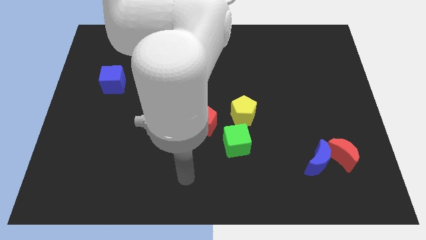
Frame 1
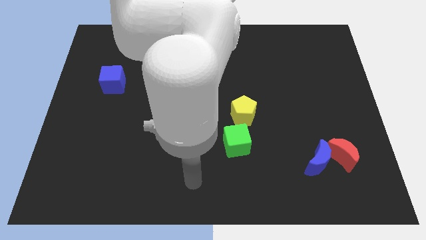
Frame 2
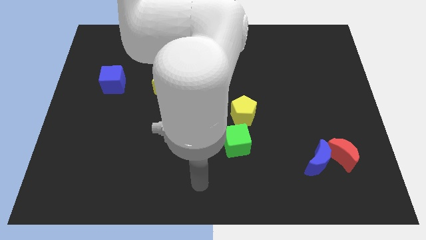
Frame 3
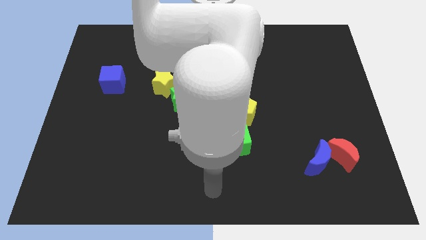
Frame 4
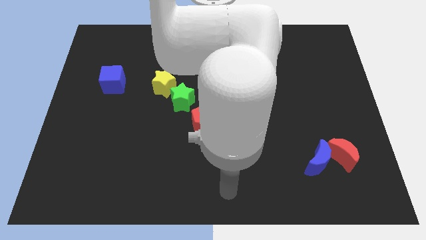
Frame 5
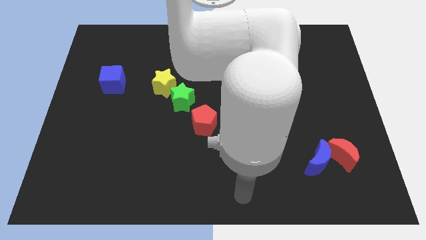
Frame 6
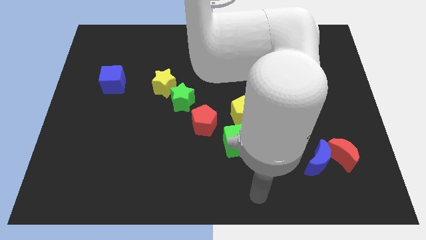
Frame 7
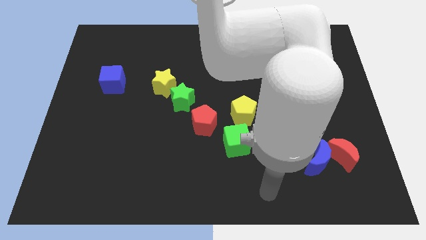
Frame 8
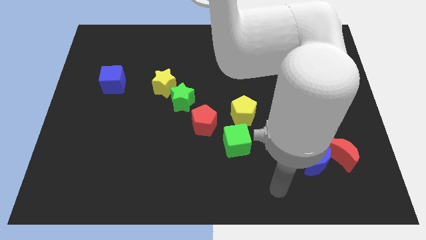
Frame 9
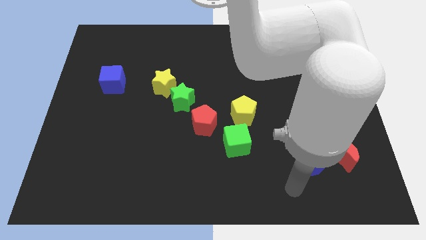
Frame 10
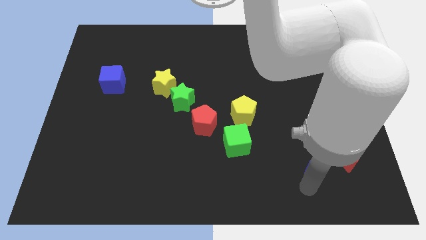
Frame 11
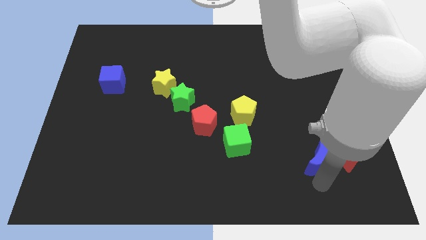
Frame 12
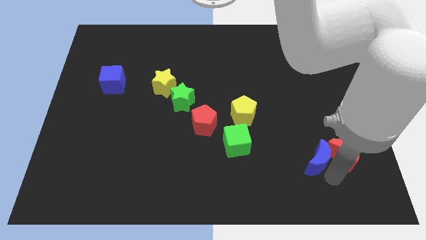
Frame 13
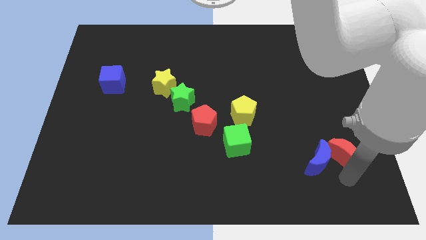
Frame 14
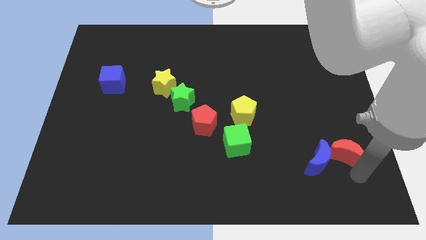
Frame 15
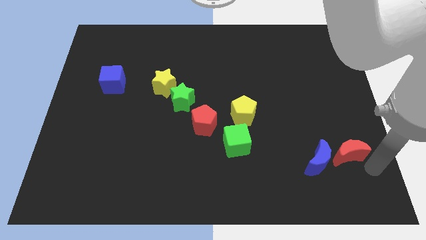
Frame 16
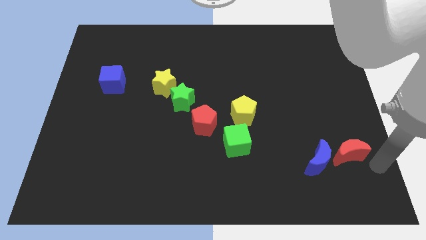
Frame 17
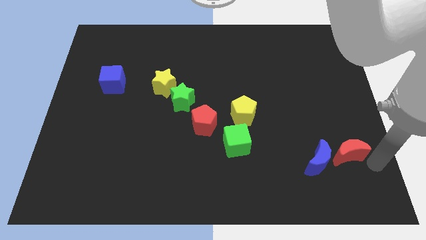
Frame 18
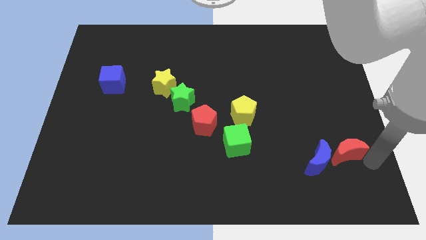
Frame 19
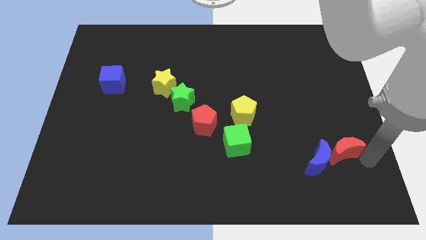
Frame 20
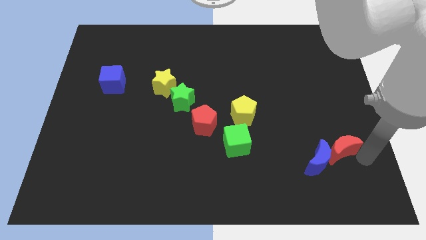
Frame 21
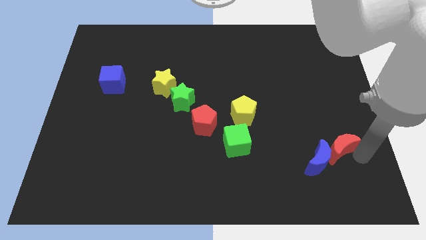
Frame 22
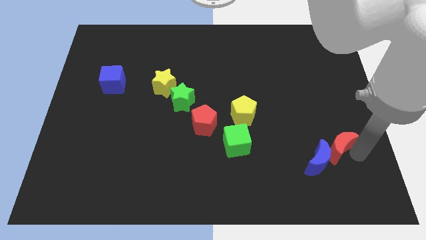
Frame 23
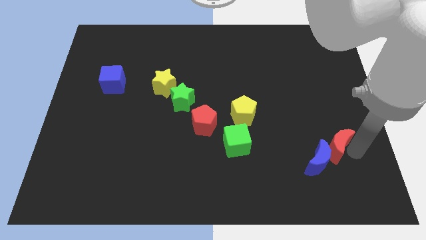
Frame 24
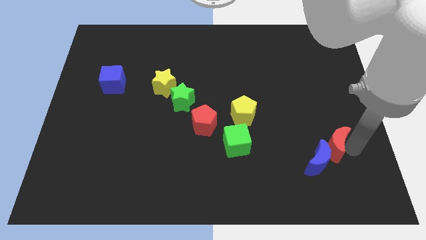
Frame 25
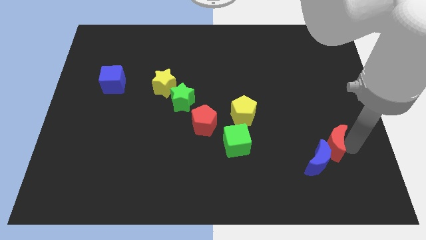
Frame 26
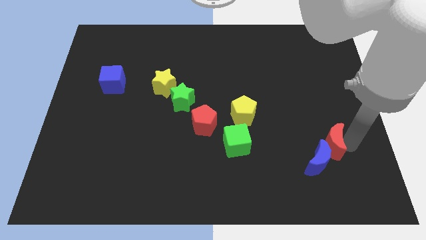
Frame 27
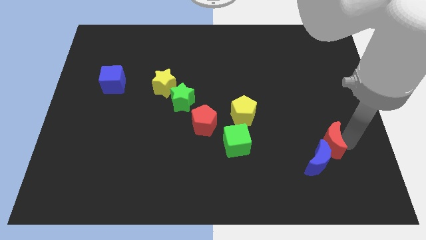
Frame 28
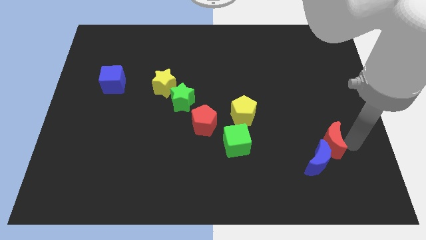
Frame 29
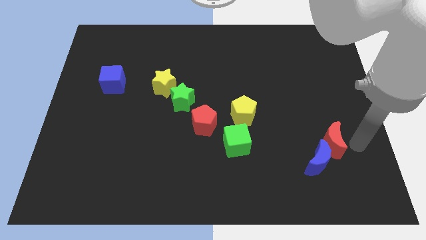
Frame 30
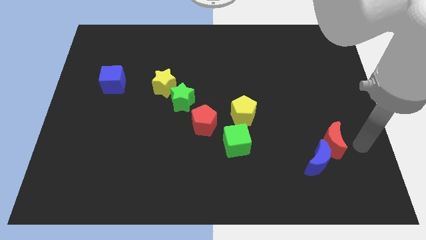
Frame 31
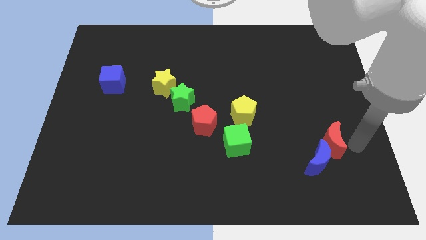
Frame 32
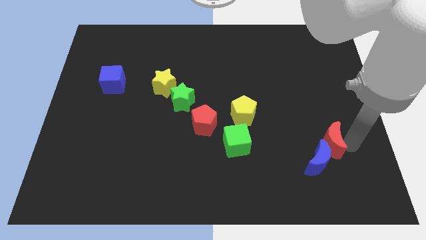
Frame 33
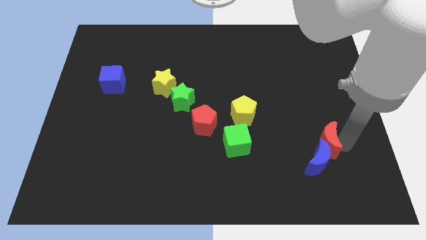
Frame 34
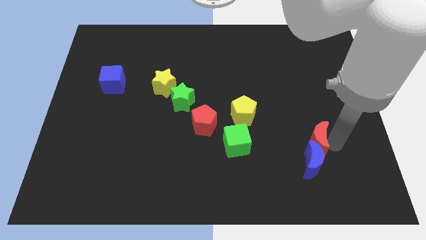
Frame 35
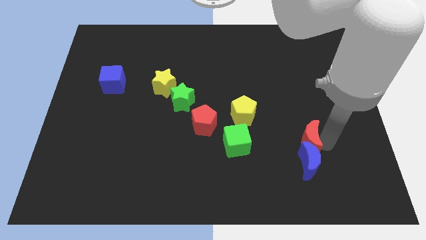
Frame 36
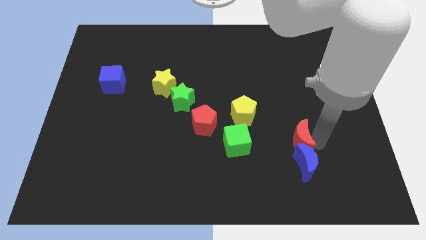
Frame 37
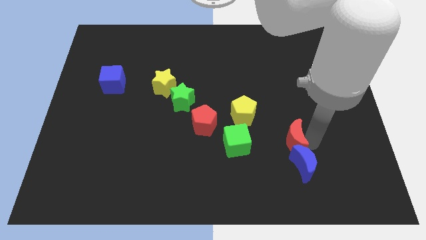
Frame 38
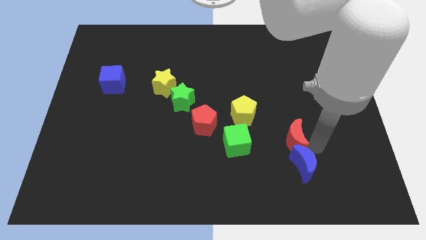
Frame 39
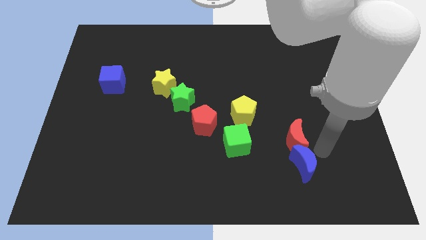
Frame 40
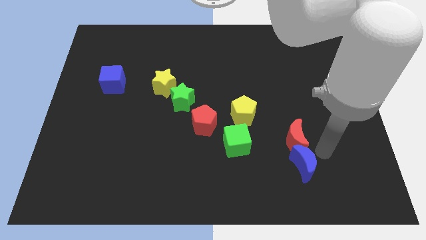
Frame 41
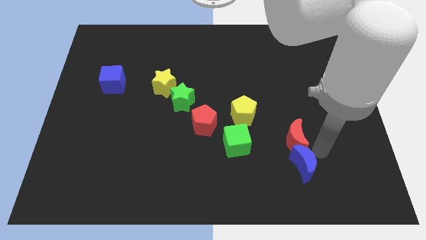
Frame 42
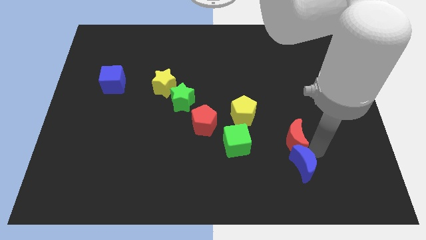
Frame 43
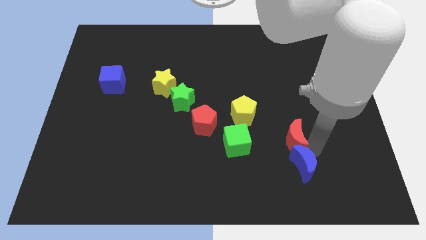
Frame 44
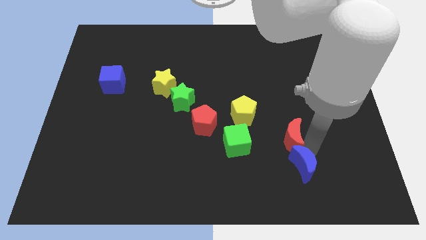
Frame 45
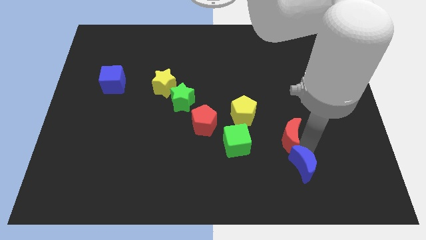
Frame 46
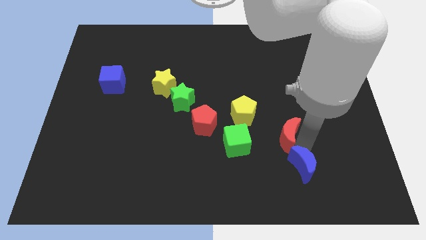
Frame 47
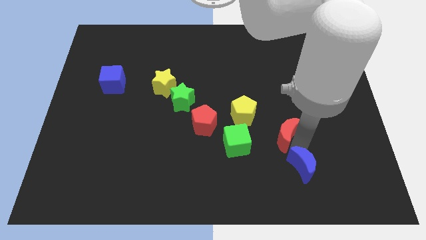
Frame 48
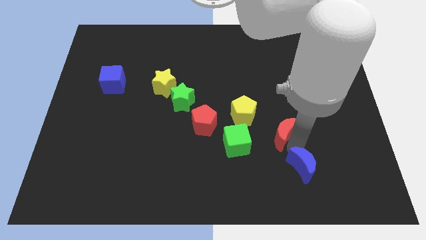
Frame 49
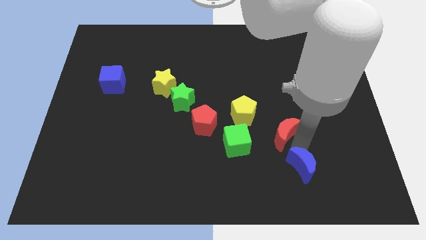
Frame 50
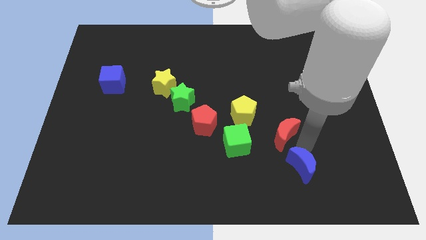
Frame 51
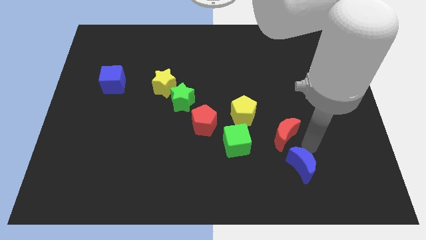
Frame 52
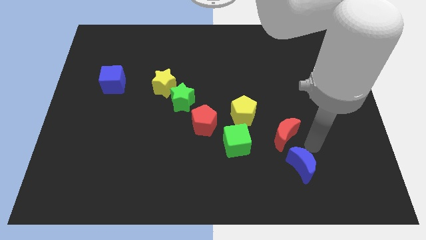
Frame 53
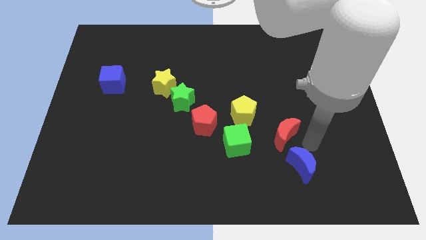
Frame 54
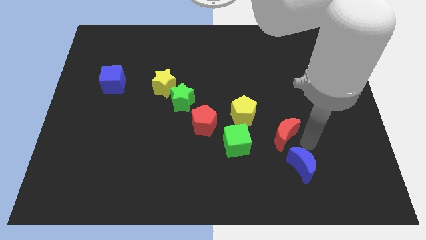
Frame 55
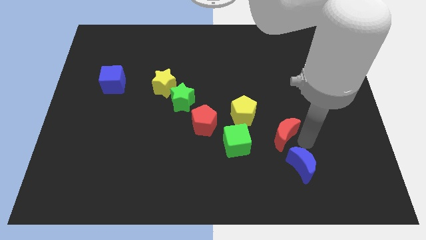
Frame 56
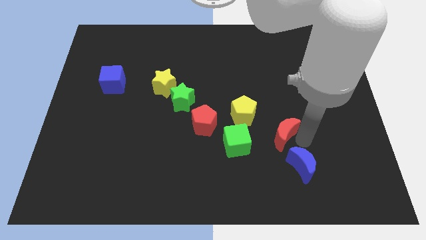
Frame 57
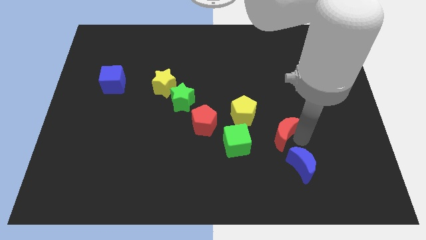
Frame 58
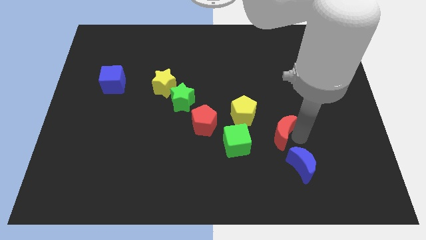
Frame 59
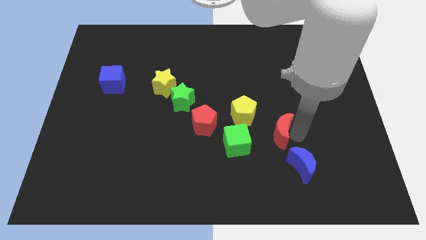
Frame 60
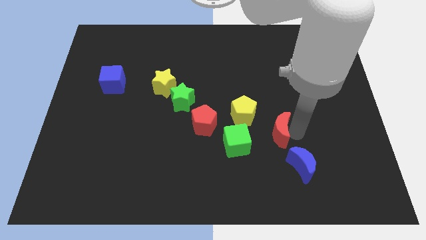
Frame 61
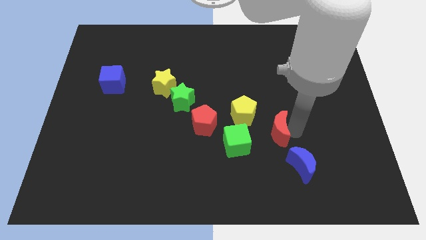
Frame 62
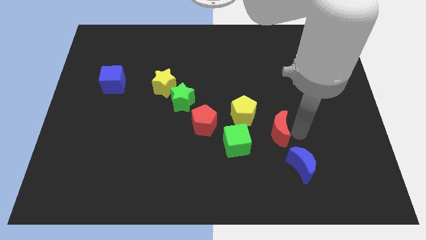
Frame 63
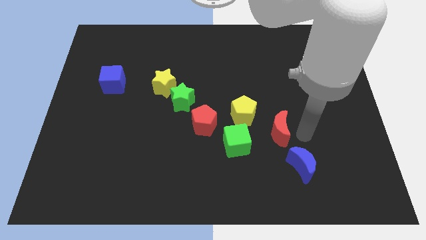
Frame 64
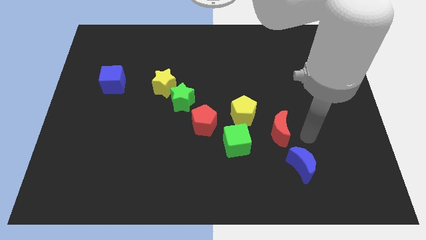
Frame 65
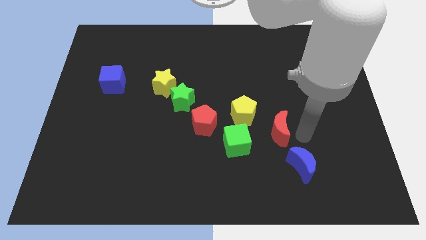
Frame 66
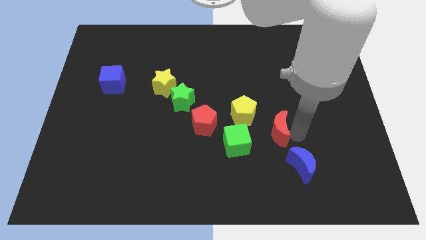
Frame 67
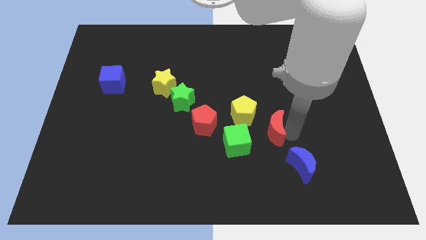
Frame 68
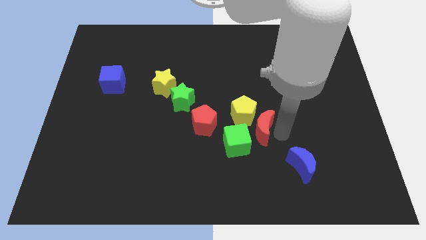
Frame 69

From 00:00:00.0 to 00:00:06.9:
put the red moon towards the yellow pentagon

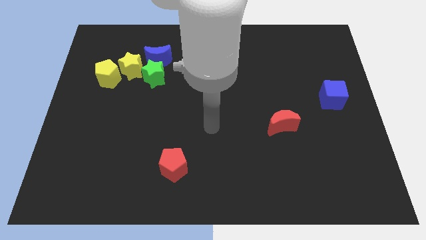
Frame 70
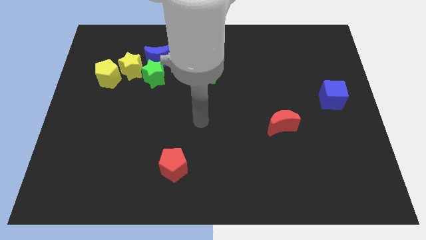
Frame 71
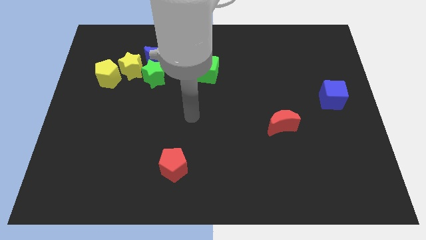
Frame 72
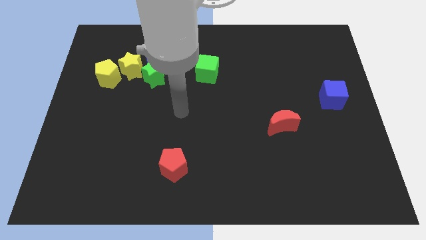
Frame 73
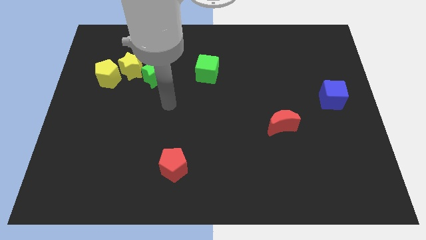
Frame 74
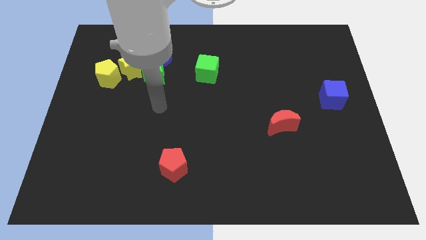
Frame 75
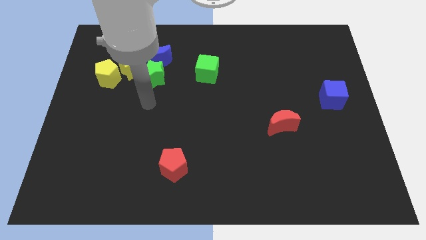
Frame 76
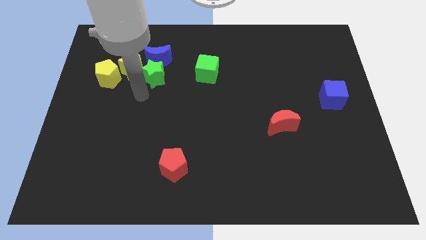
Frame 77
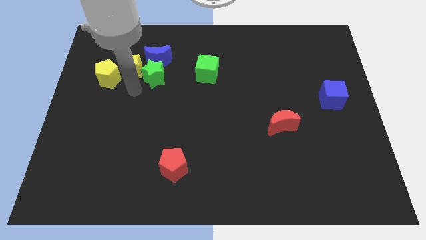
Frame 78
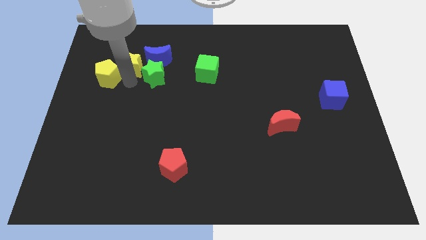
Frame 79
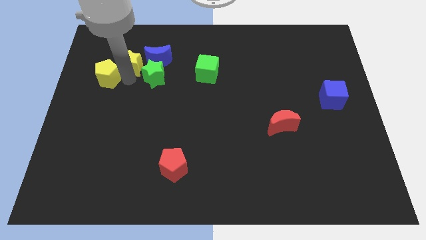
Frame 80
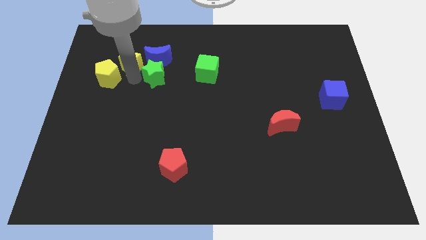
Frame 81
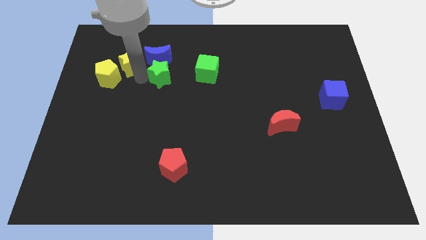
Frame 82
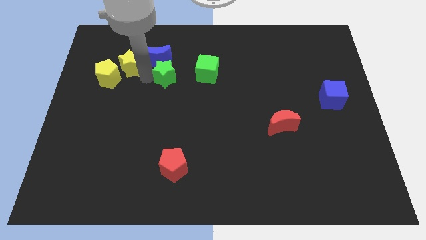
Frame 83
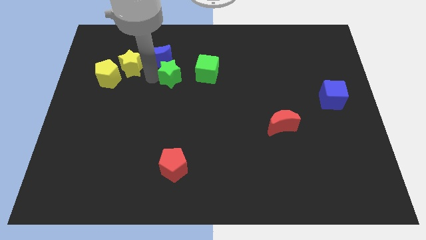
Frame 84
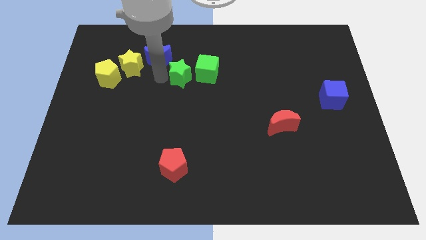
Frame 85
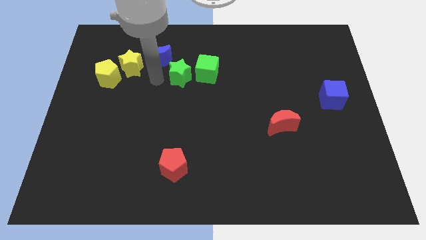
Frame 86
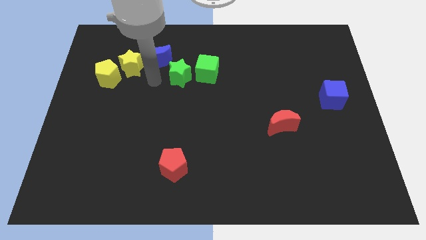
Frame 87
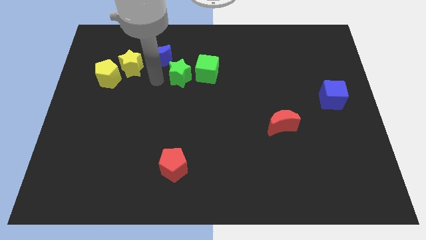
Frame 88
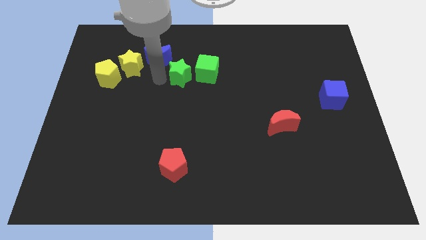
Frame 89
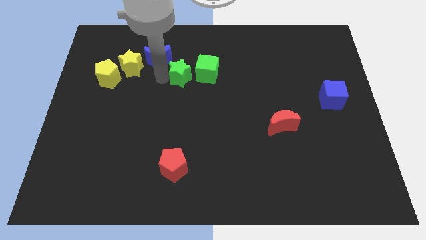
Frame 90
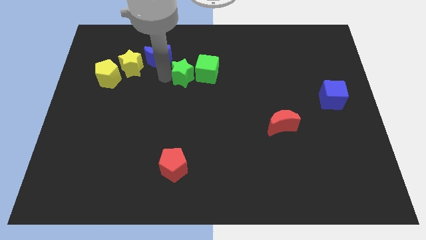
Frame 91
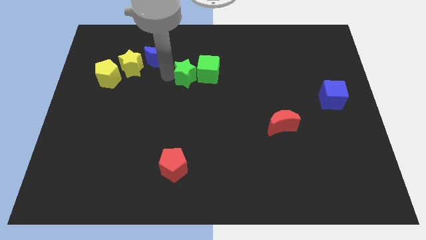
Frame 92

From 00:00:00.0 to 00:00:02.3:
push the green star close to the green cube
